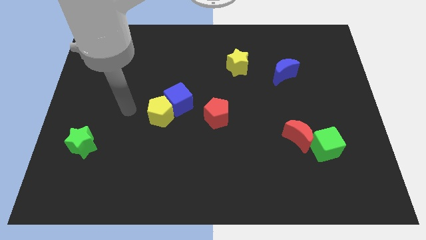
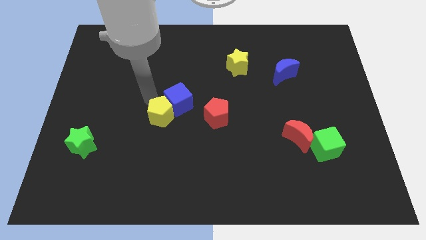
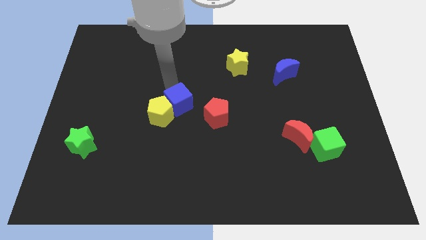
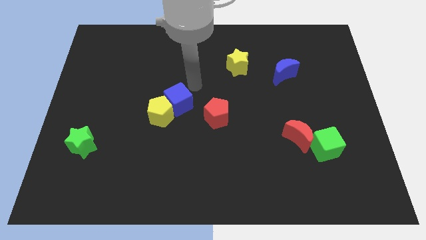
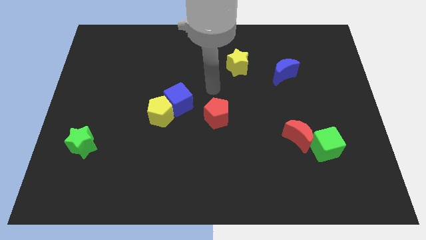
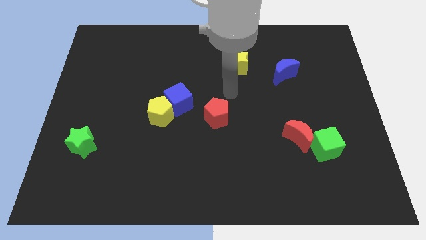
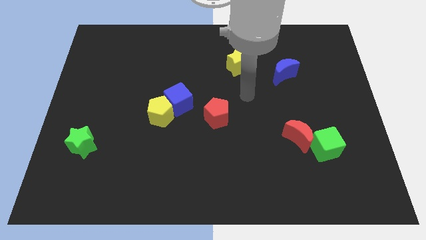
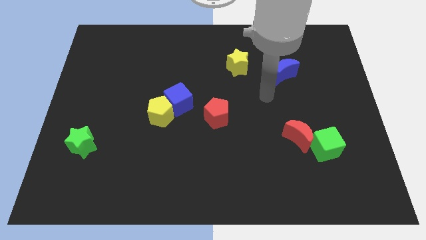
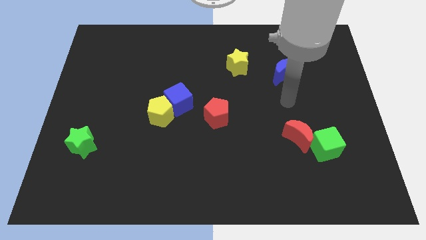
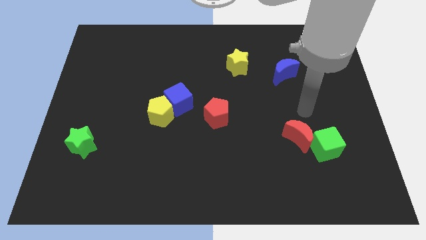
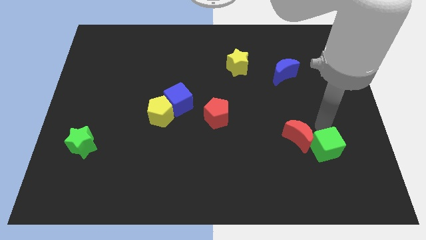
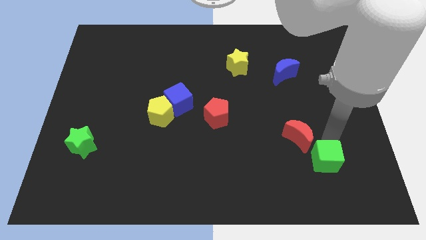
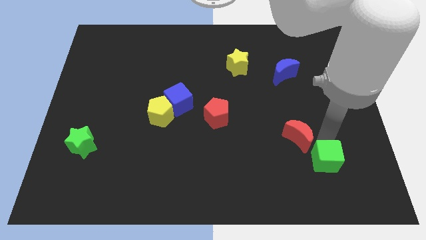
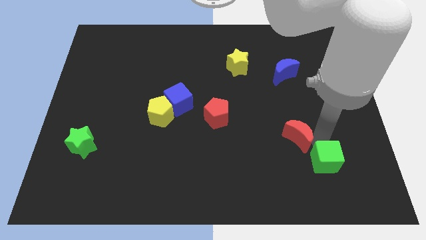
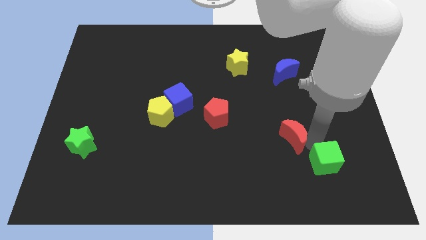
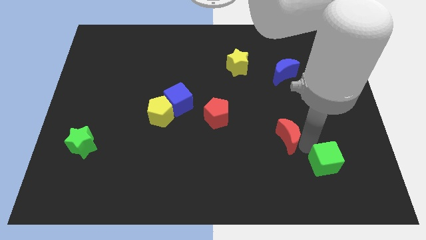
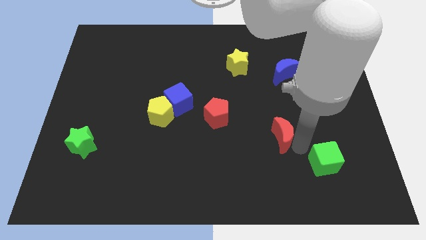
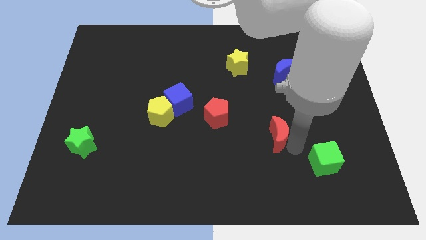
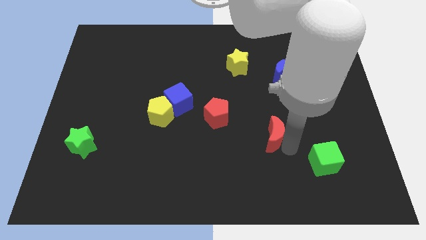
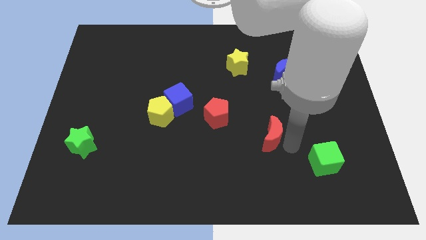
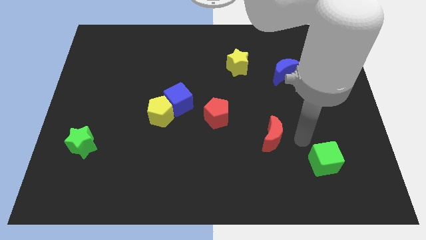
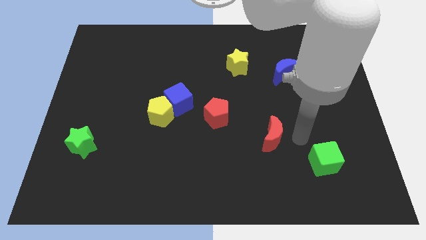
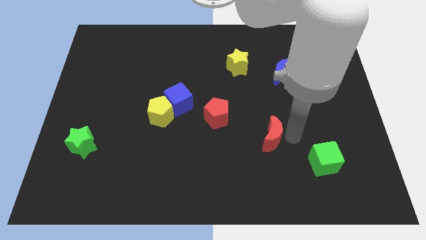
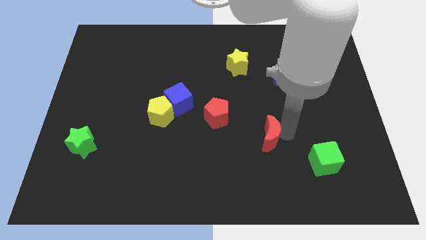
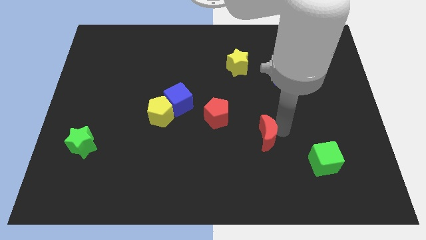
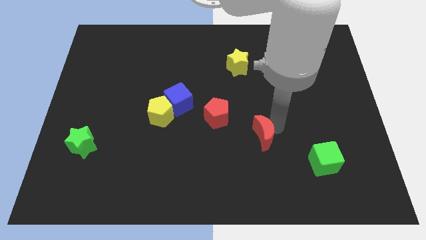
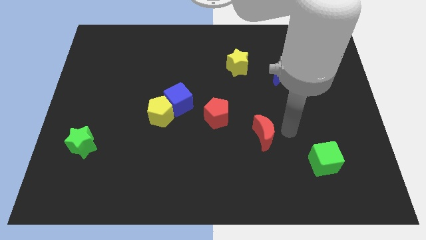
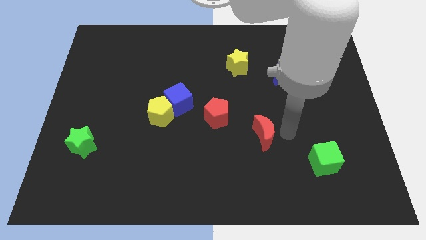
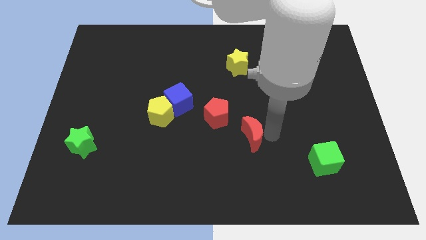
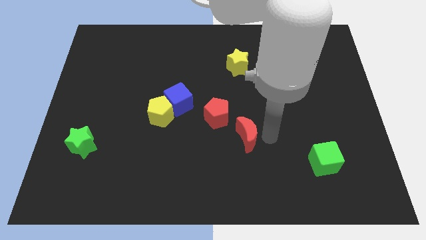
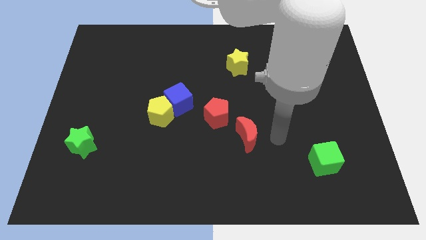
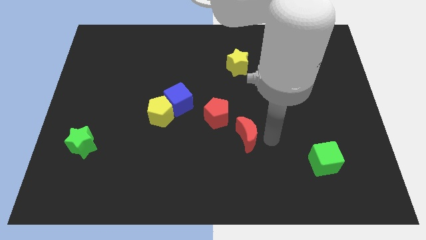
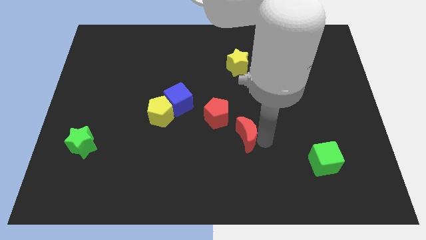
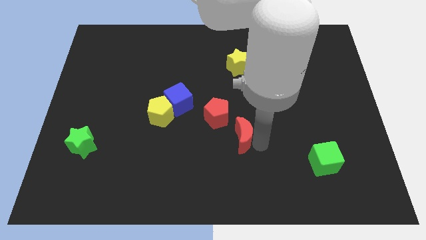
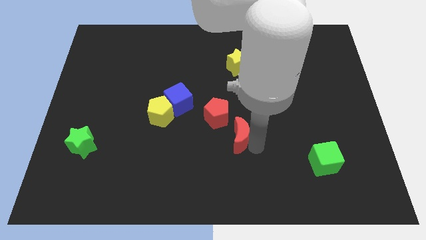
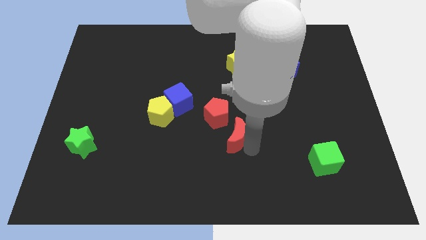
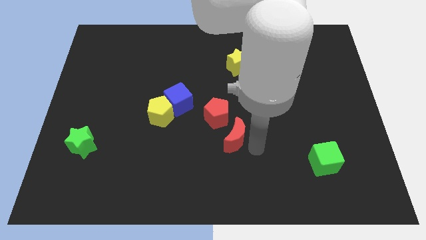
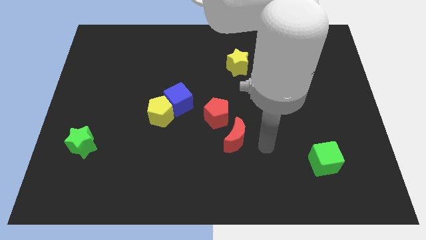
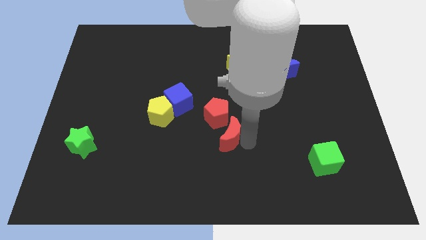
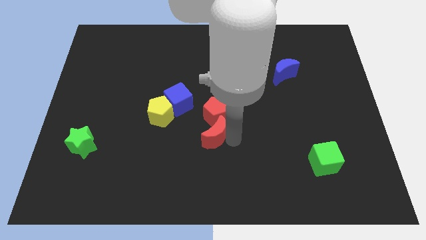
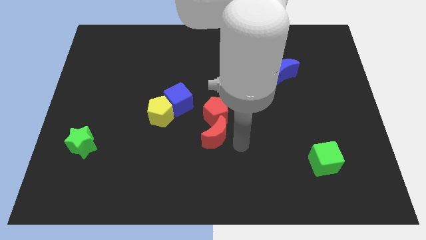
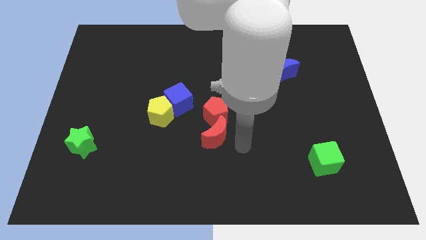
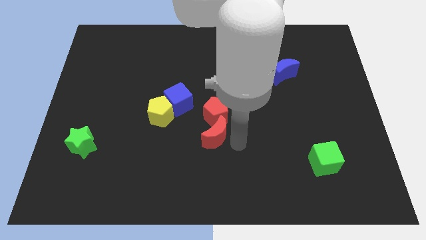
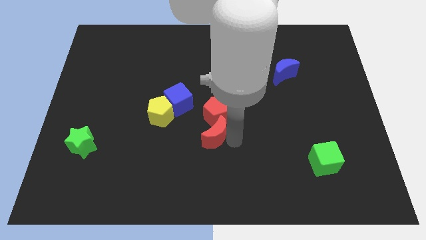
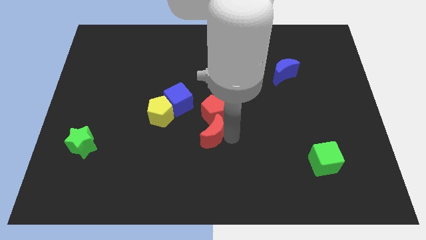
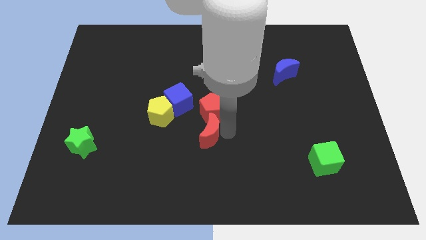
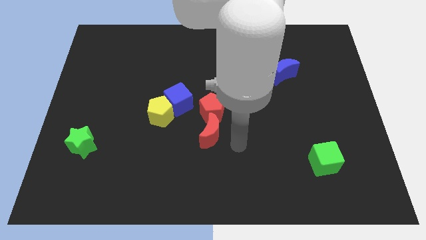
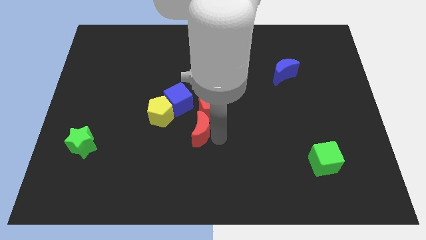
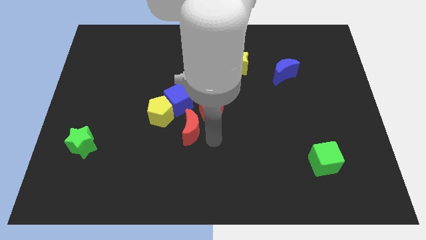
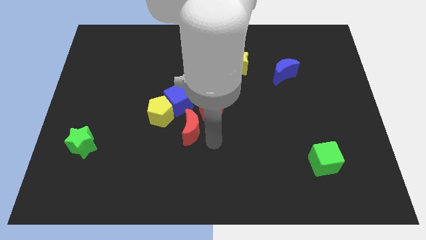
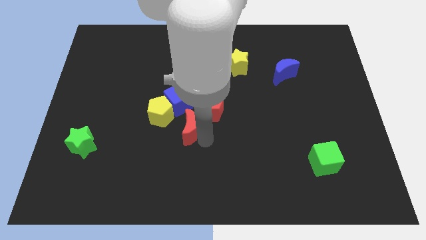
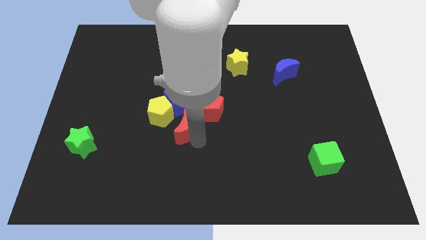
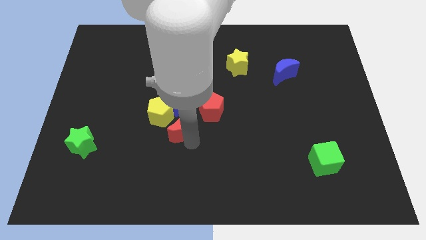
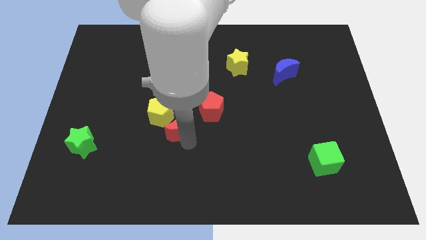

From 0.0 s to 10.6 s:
slide the red moon towards the yellow pentagon

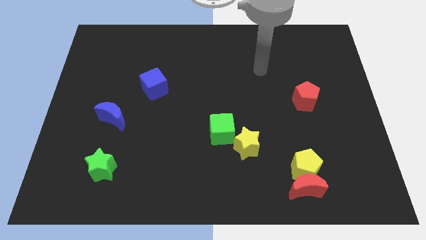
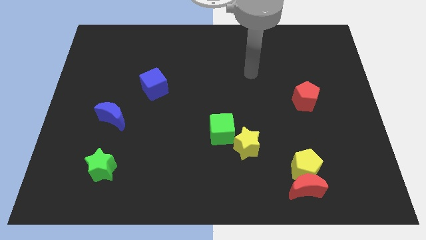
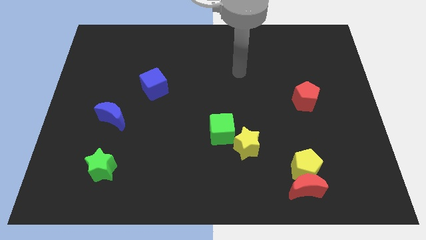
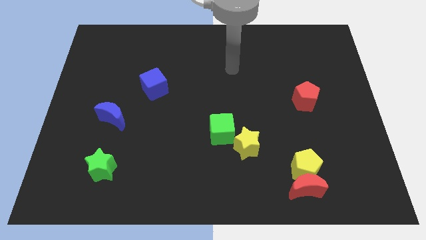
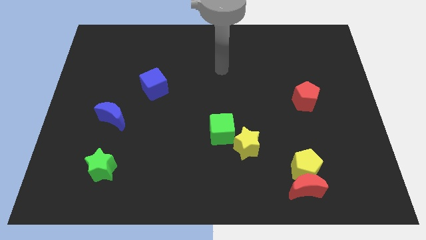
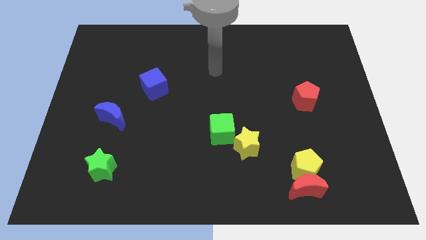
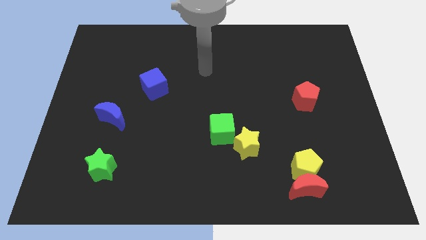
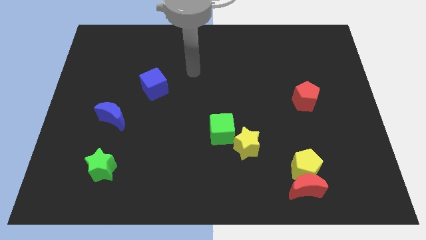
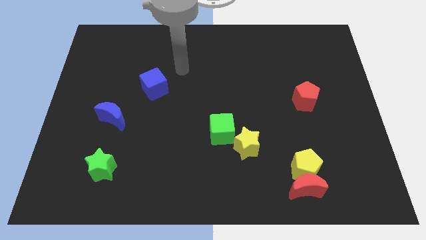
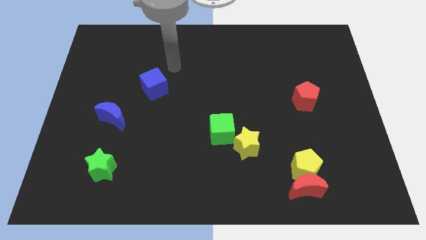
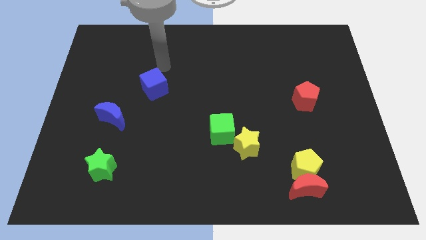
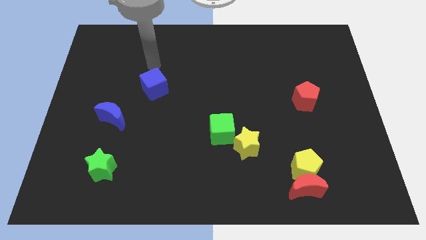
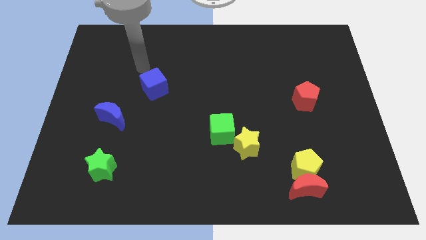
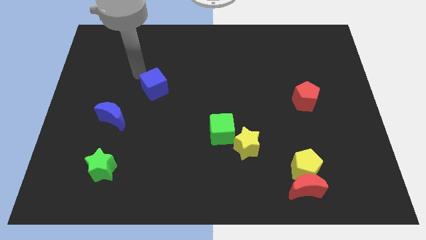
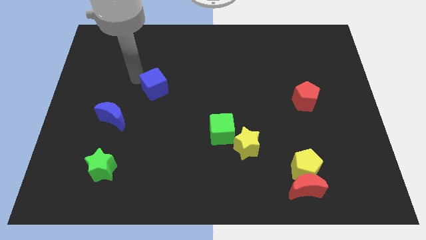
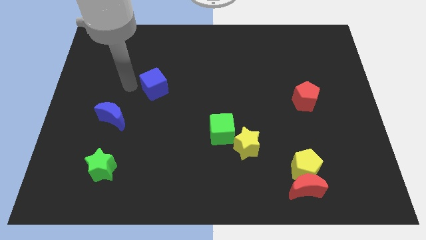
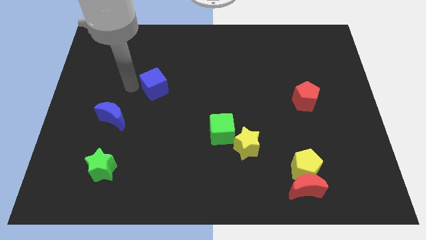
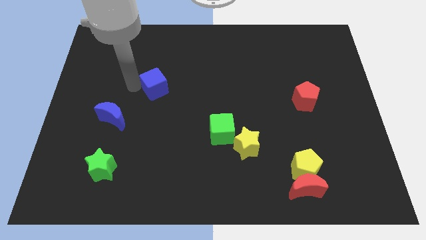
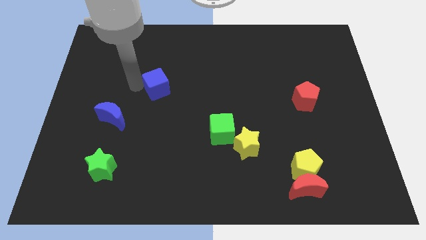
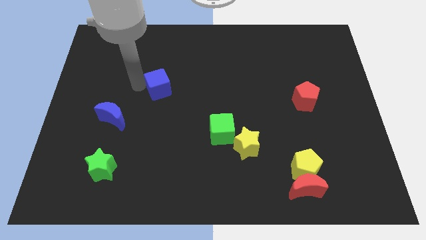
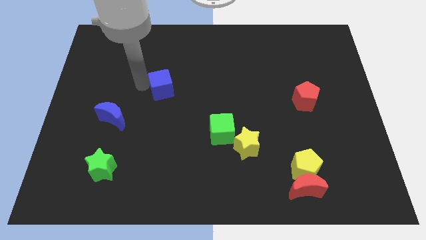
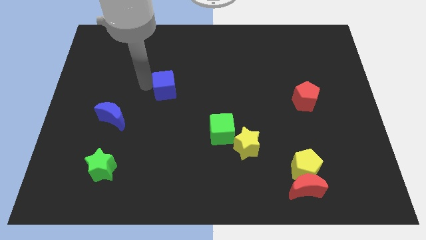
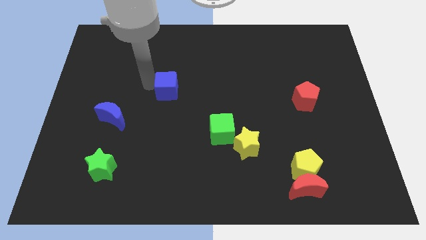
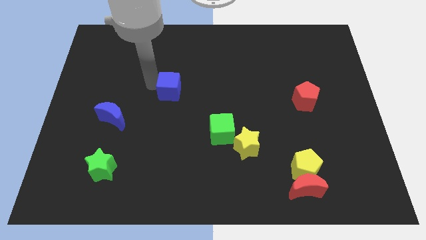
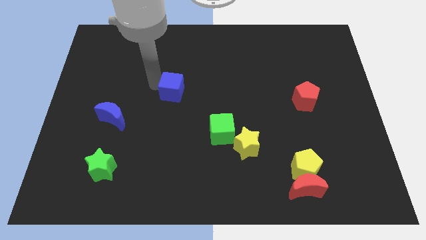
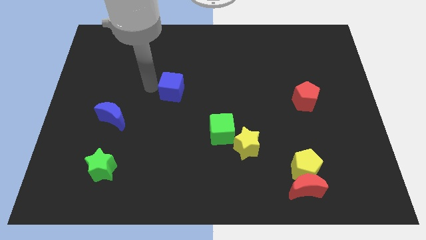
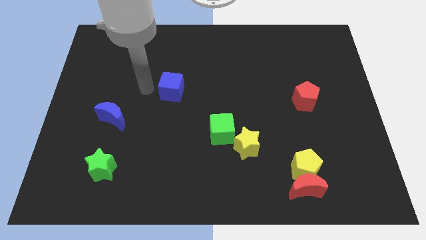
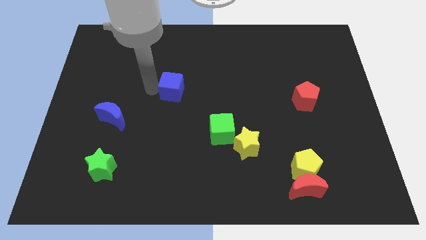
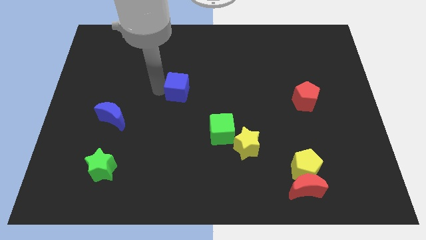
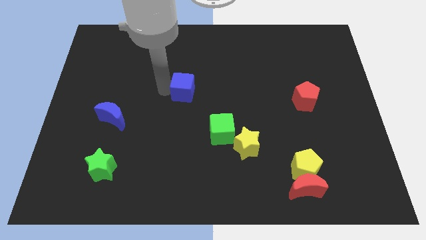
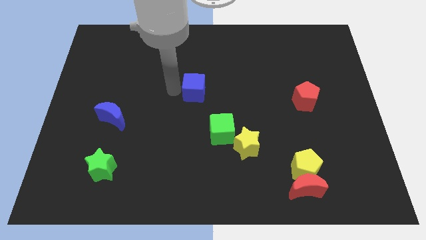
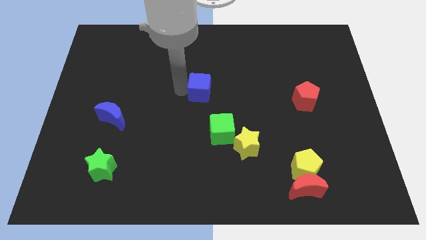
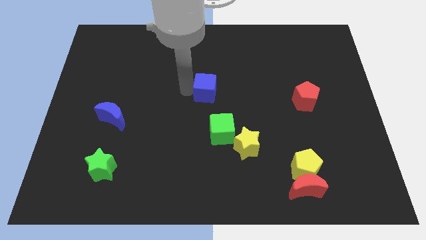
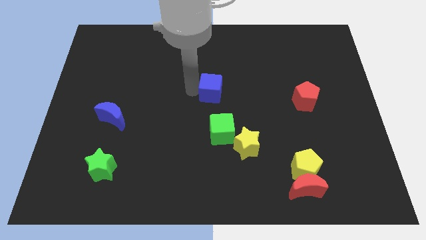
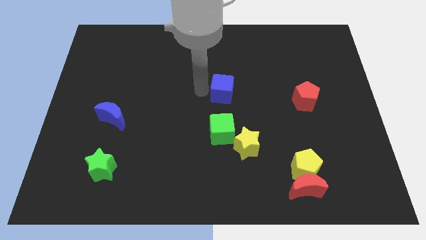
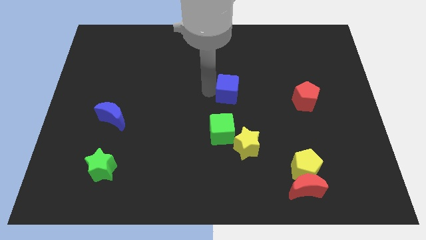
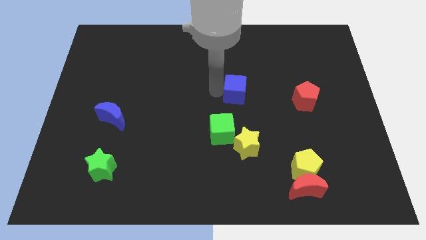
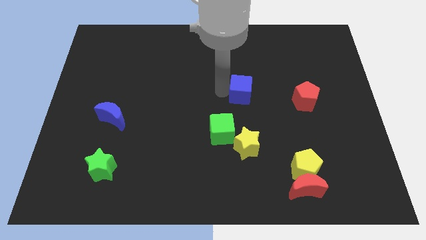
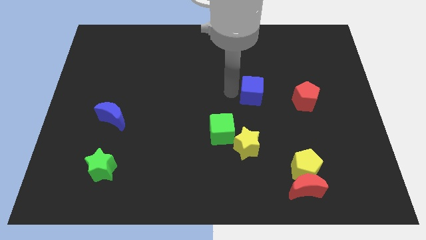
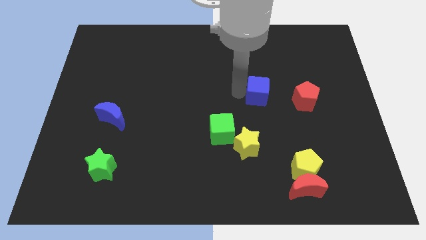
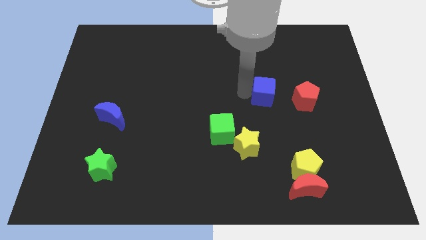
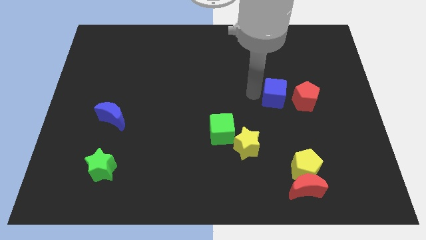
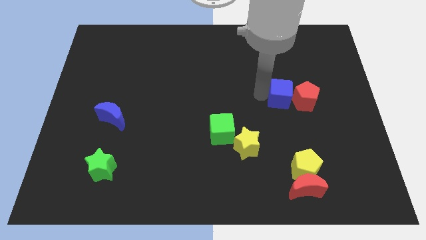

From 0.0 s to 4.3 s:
put the blue cube next to the red pentagon
